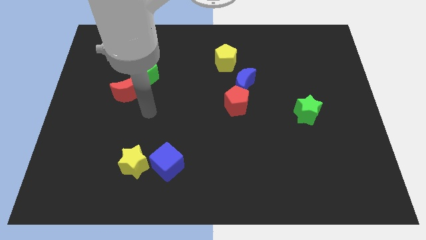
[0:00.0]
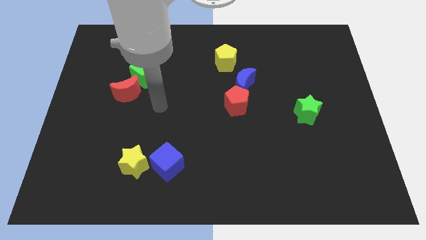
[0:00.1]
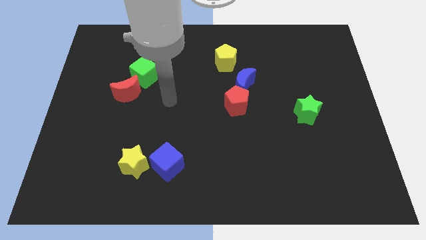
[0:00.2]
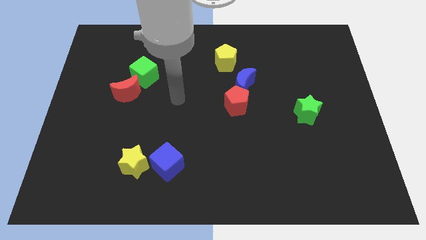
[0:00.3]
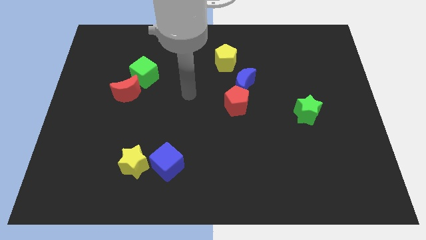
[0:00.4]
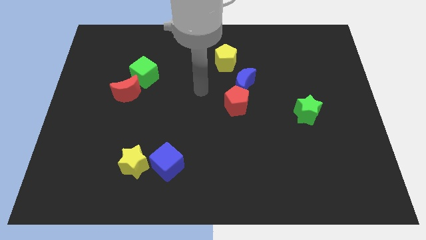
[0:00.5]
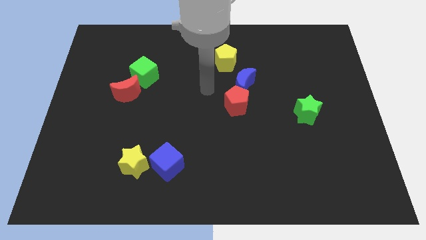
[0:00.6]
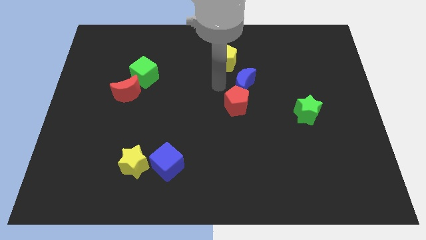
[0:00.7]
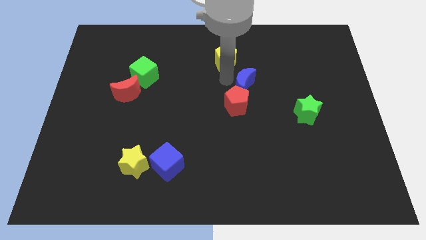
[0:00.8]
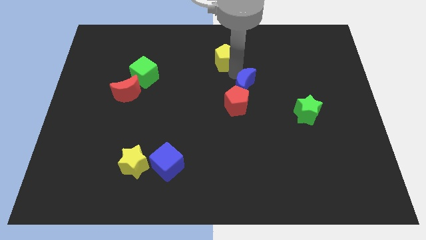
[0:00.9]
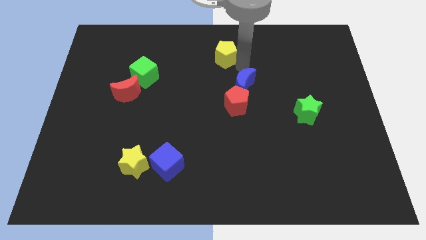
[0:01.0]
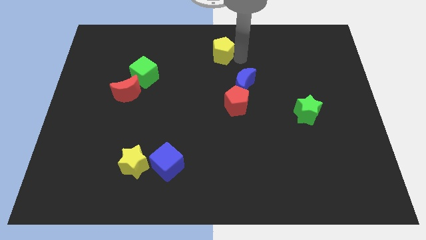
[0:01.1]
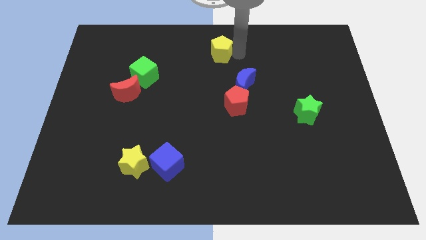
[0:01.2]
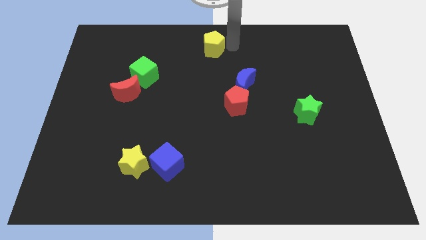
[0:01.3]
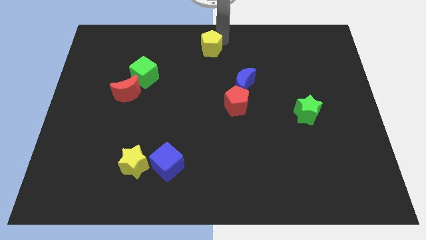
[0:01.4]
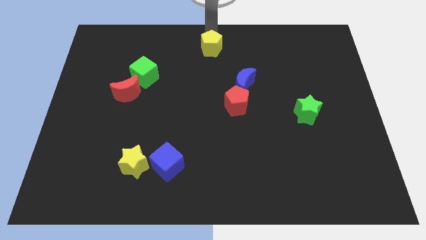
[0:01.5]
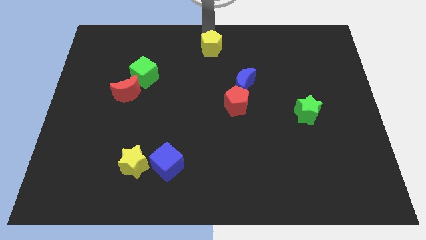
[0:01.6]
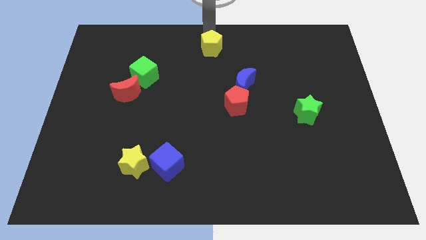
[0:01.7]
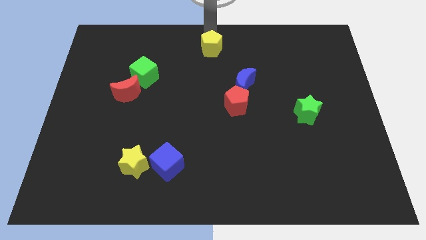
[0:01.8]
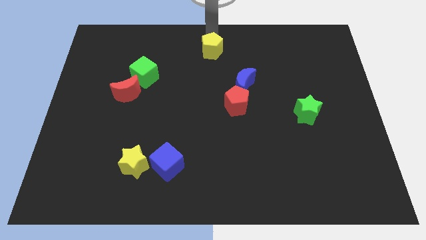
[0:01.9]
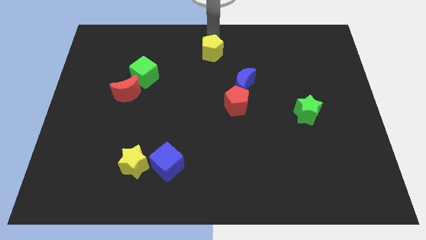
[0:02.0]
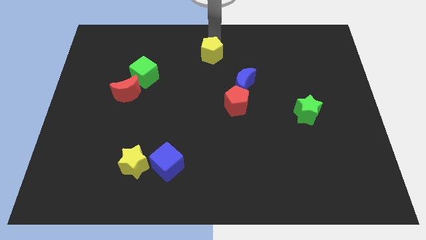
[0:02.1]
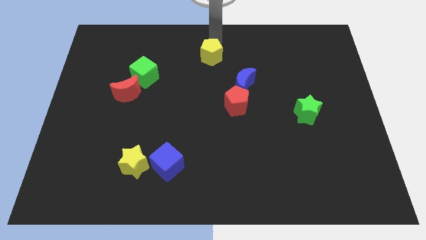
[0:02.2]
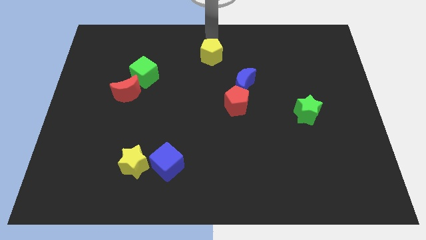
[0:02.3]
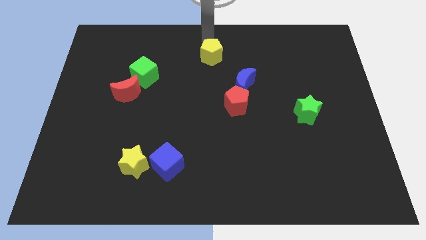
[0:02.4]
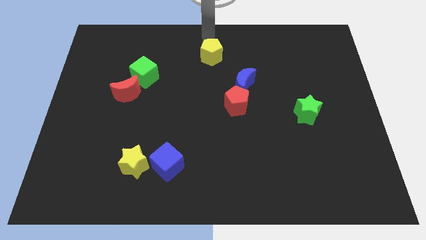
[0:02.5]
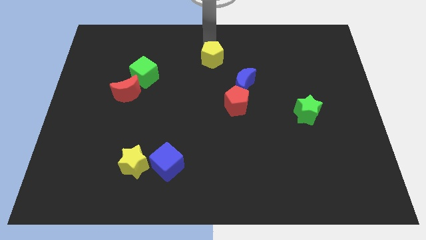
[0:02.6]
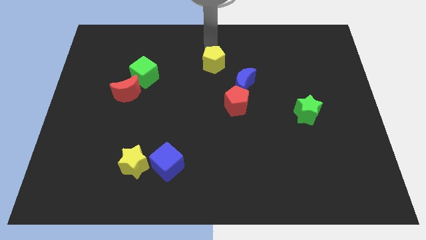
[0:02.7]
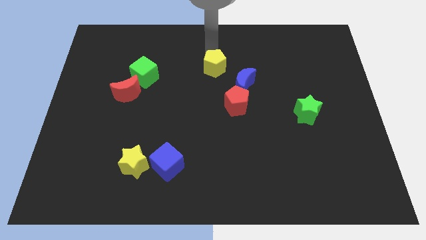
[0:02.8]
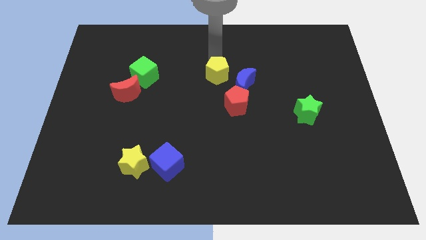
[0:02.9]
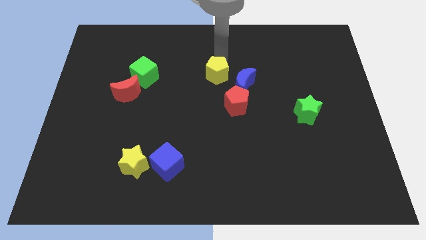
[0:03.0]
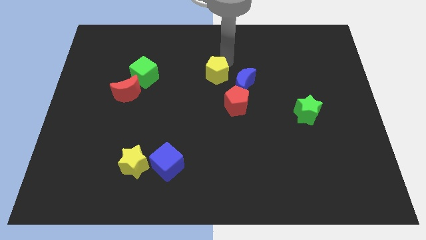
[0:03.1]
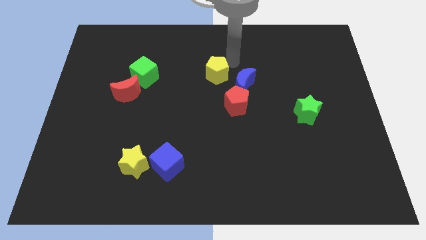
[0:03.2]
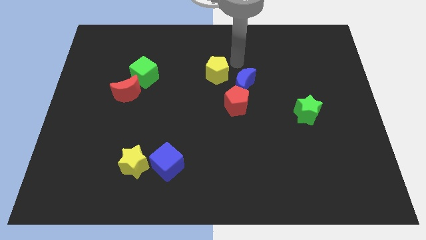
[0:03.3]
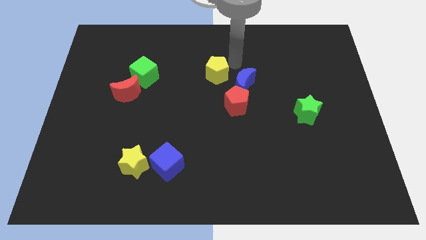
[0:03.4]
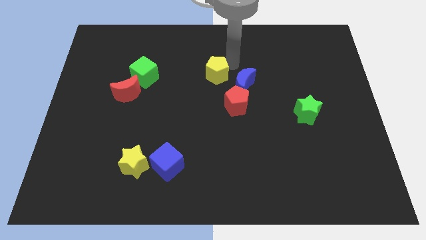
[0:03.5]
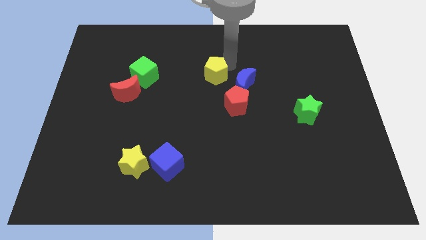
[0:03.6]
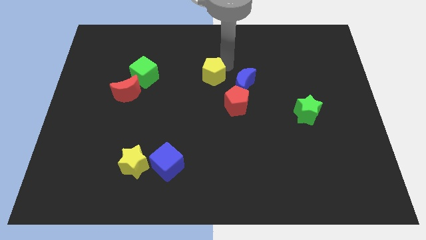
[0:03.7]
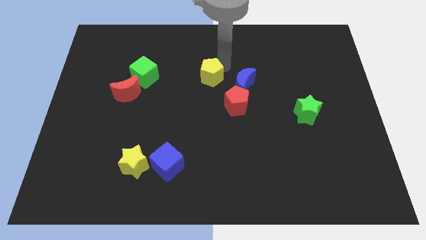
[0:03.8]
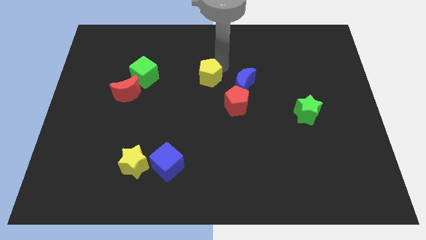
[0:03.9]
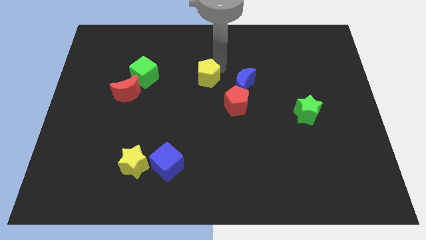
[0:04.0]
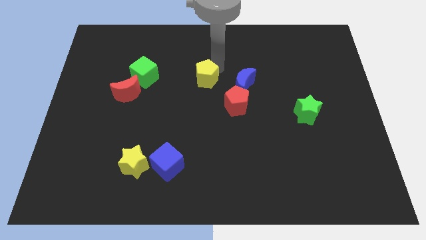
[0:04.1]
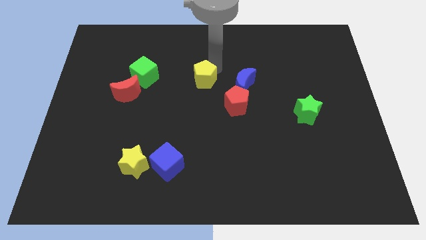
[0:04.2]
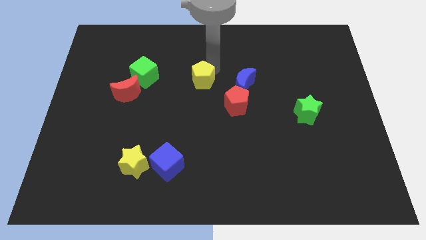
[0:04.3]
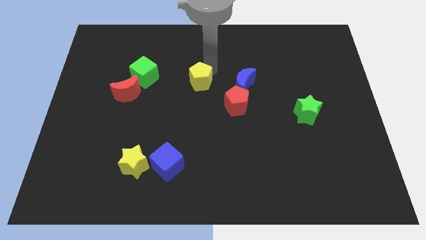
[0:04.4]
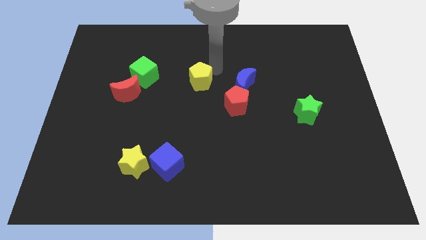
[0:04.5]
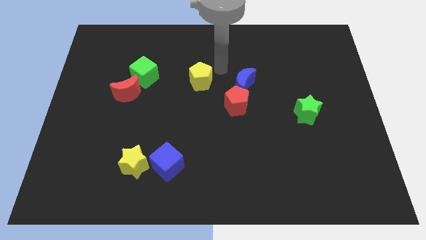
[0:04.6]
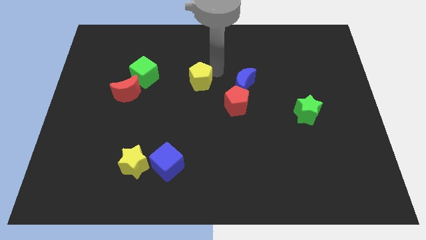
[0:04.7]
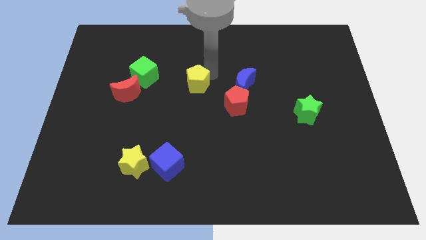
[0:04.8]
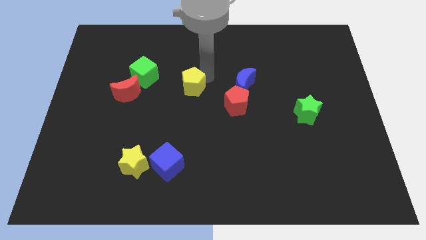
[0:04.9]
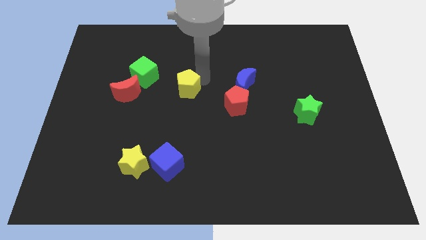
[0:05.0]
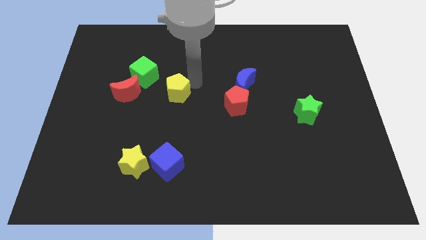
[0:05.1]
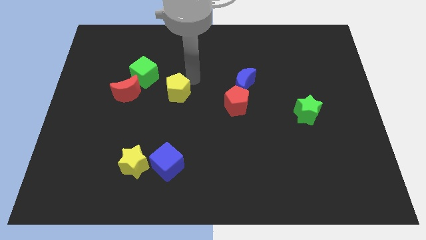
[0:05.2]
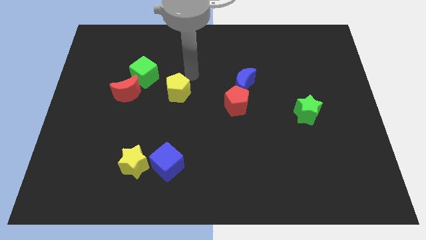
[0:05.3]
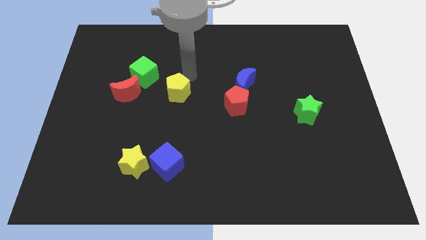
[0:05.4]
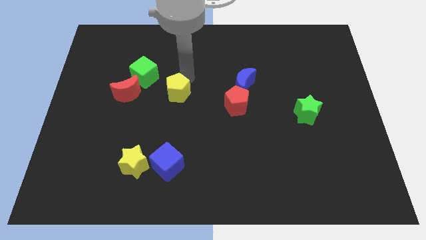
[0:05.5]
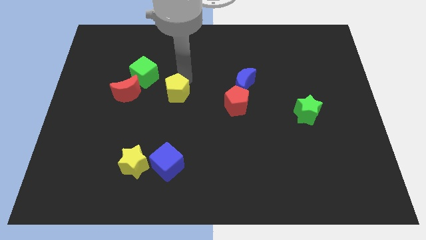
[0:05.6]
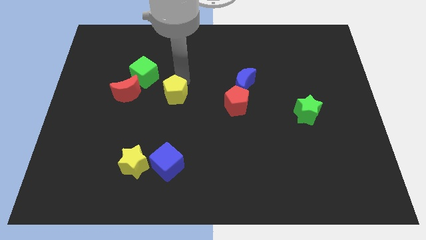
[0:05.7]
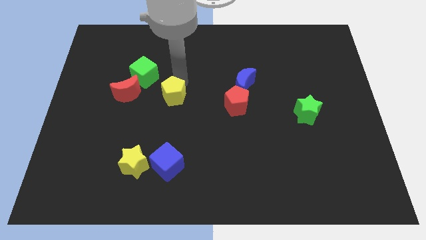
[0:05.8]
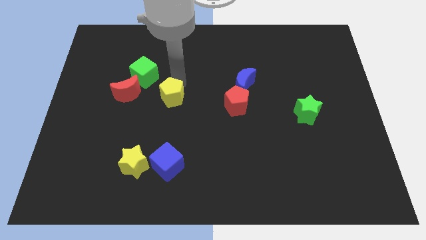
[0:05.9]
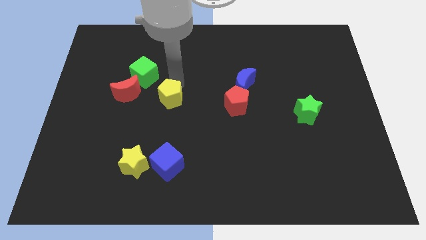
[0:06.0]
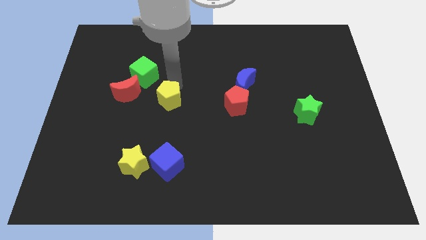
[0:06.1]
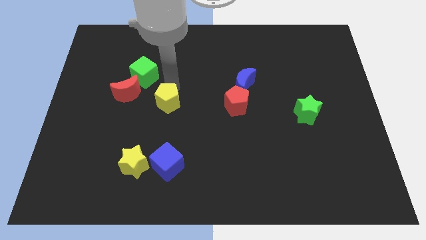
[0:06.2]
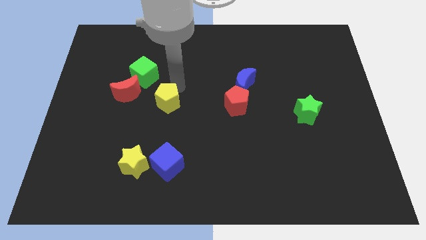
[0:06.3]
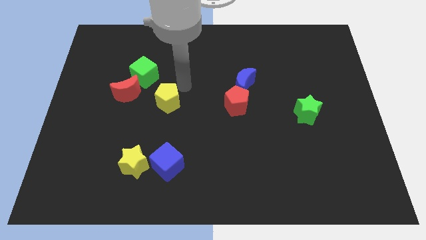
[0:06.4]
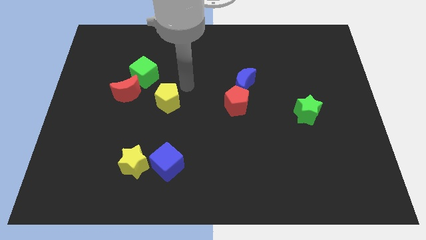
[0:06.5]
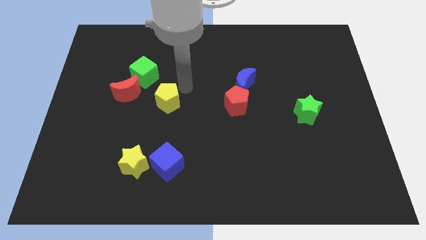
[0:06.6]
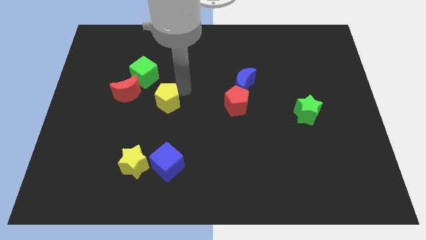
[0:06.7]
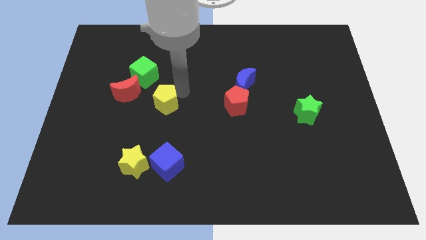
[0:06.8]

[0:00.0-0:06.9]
slide the yellow pentagon downwards and then left

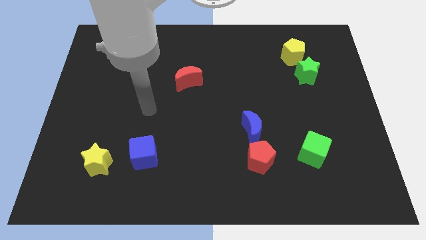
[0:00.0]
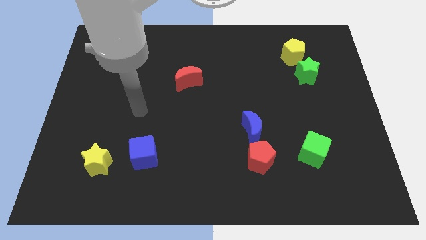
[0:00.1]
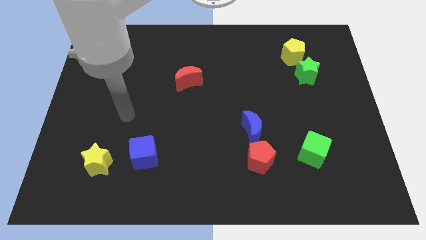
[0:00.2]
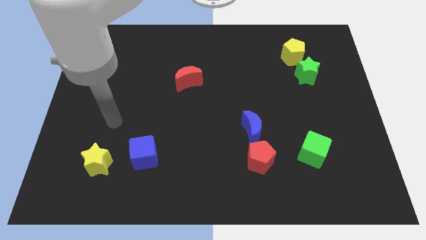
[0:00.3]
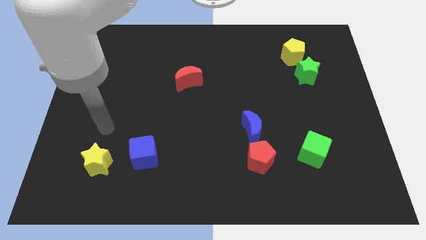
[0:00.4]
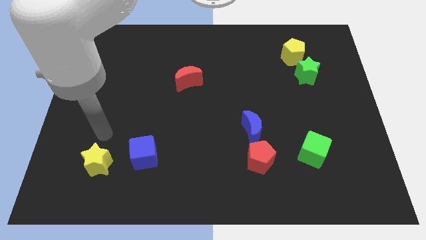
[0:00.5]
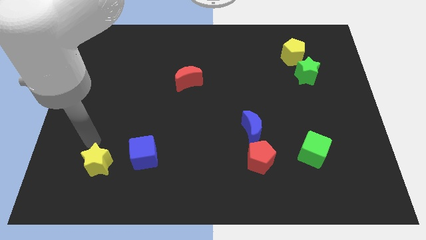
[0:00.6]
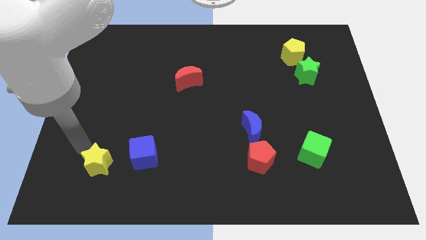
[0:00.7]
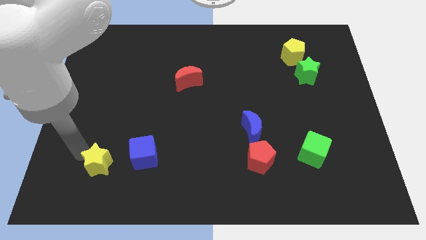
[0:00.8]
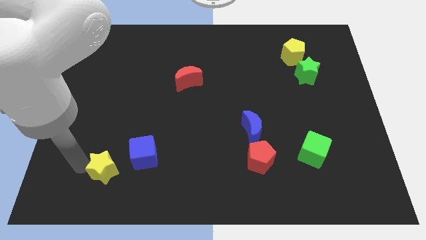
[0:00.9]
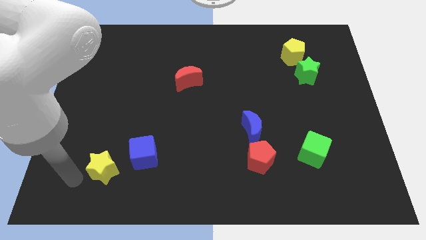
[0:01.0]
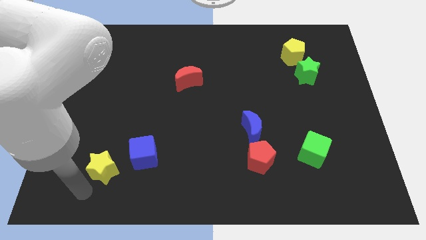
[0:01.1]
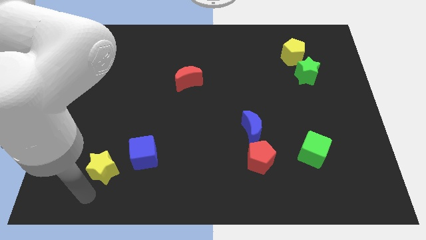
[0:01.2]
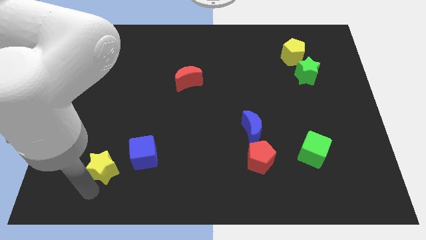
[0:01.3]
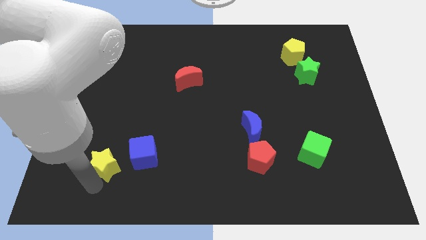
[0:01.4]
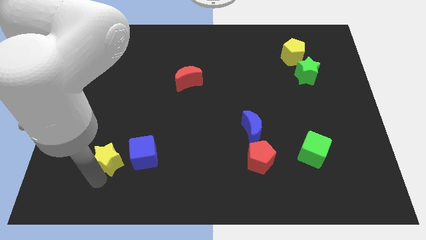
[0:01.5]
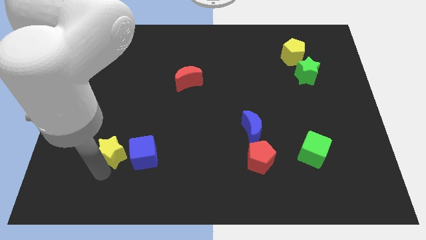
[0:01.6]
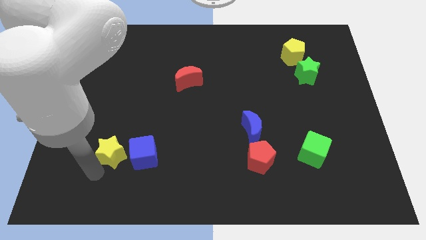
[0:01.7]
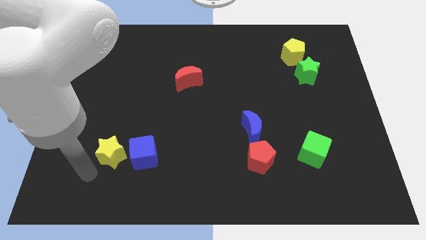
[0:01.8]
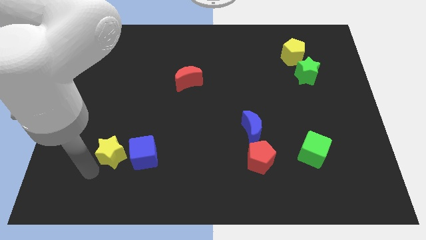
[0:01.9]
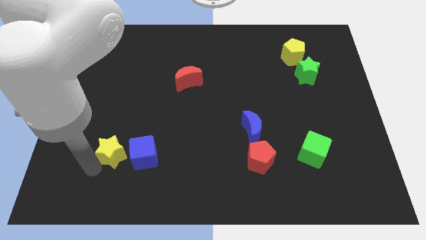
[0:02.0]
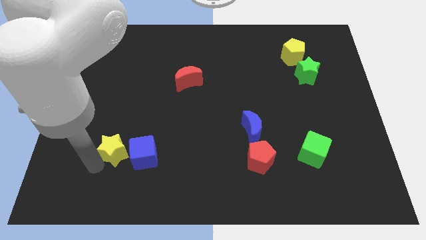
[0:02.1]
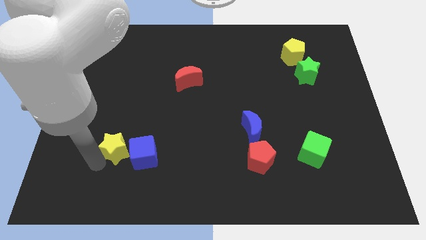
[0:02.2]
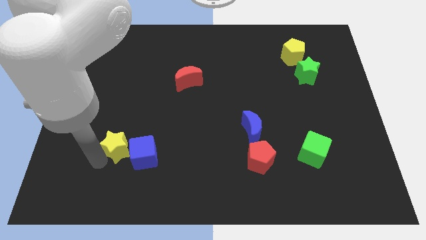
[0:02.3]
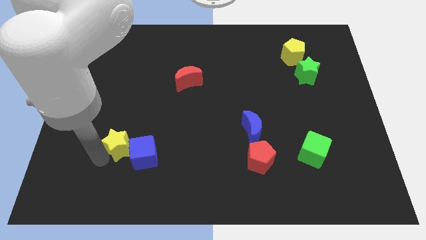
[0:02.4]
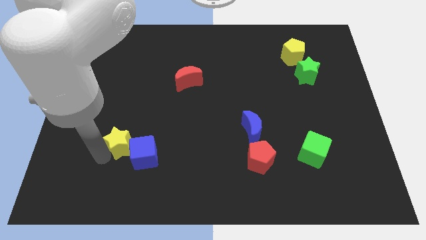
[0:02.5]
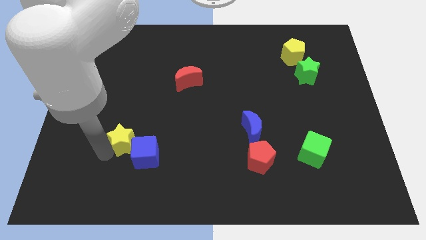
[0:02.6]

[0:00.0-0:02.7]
slightly push the yellow star up and to the right
